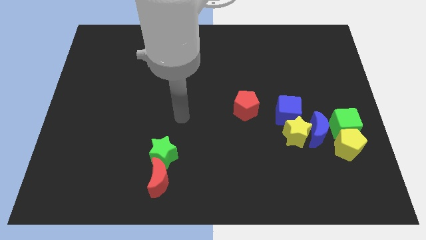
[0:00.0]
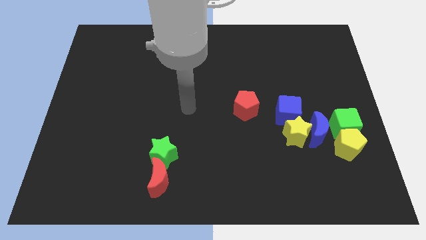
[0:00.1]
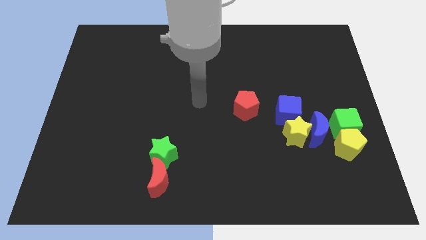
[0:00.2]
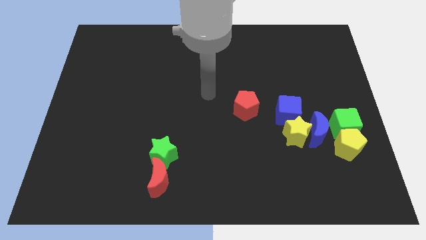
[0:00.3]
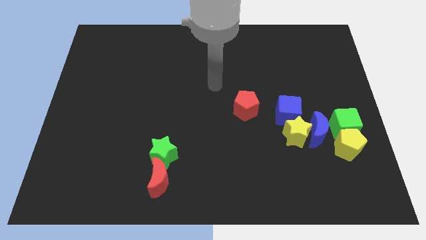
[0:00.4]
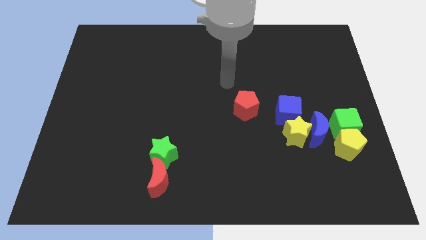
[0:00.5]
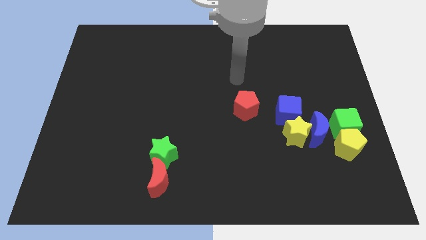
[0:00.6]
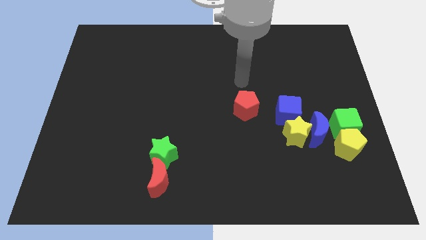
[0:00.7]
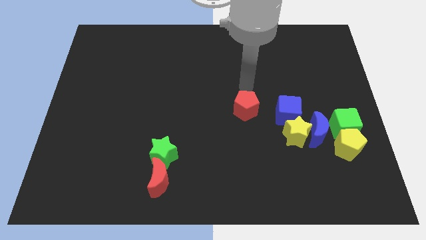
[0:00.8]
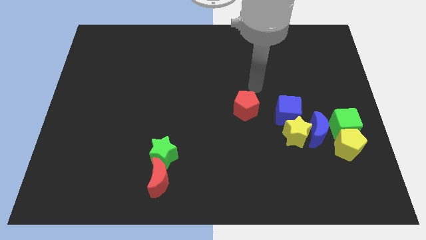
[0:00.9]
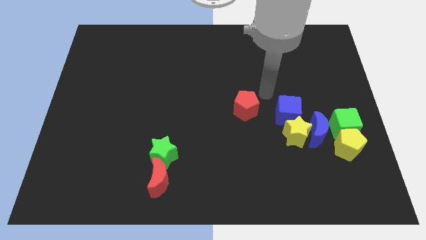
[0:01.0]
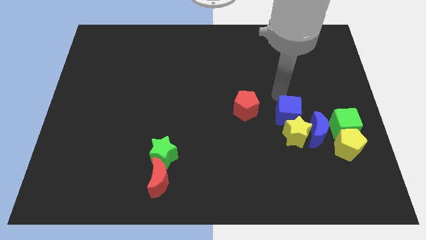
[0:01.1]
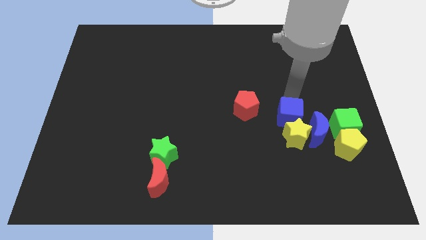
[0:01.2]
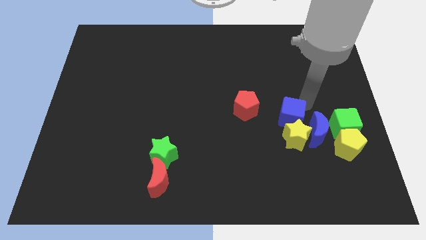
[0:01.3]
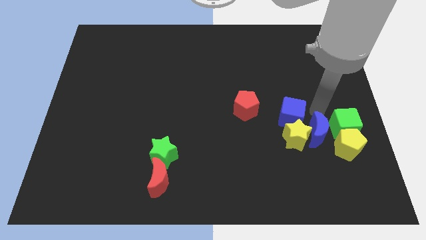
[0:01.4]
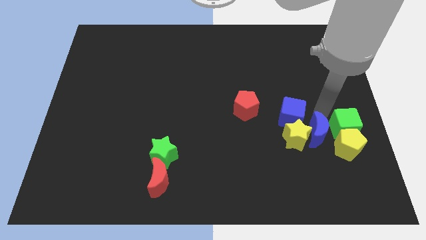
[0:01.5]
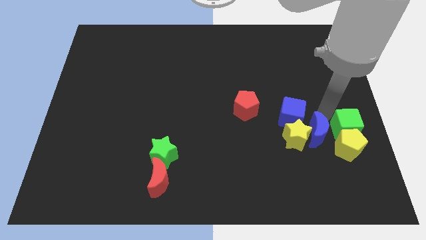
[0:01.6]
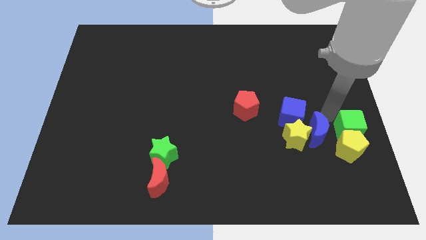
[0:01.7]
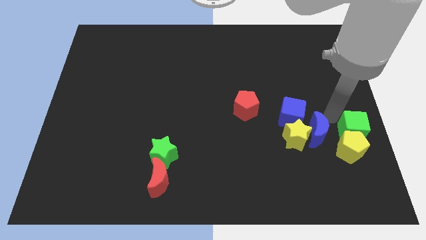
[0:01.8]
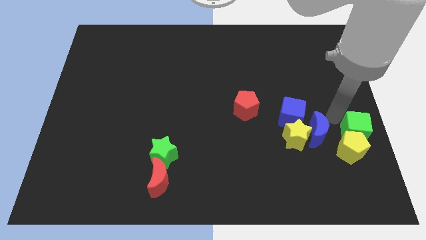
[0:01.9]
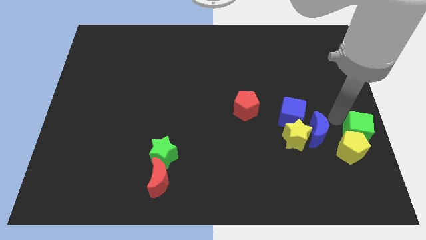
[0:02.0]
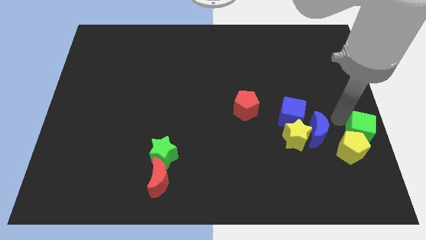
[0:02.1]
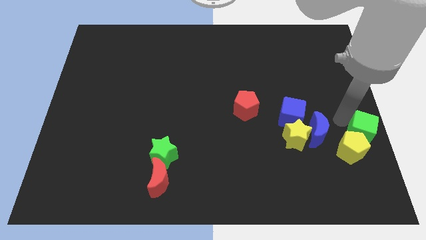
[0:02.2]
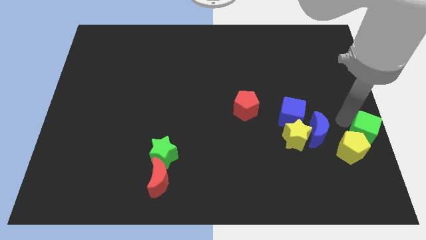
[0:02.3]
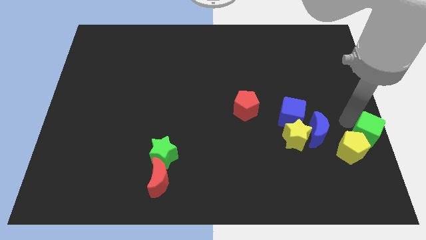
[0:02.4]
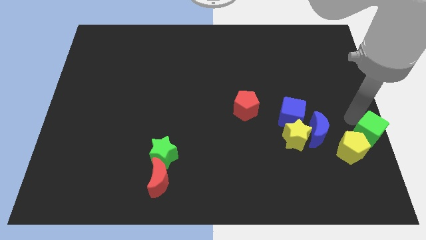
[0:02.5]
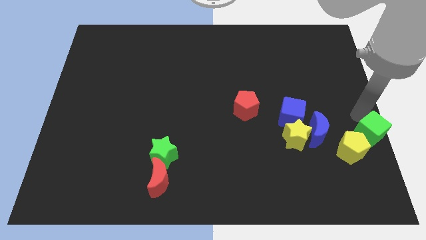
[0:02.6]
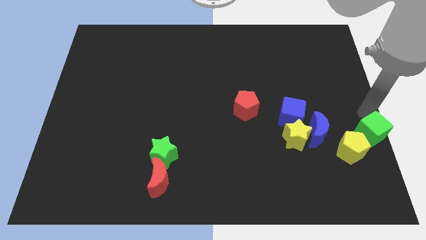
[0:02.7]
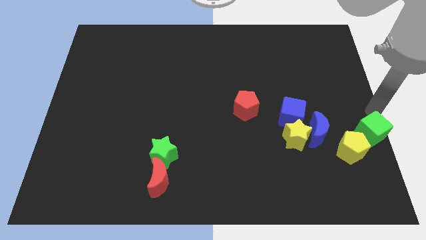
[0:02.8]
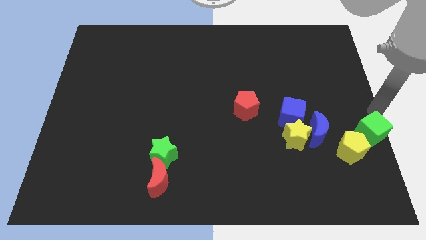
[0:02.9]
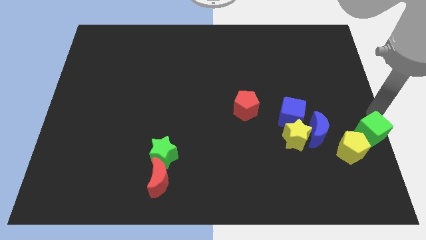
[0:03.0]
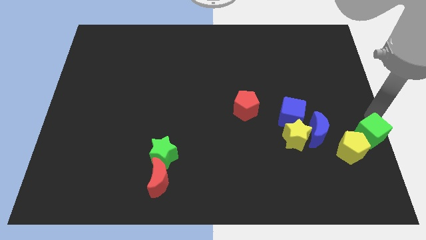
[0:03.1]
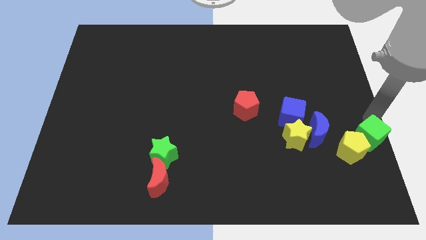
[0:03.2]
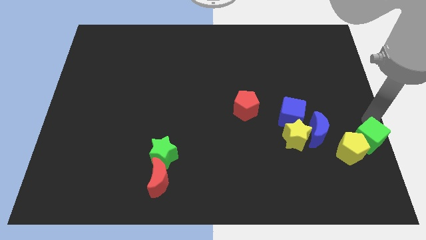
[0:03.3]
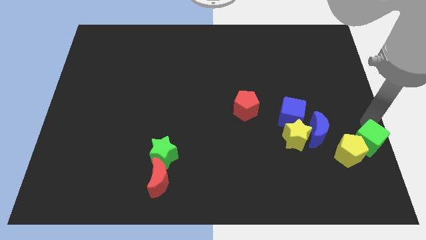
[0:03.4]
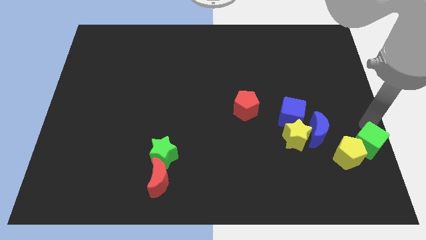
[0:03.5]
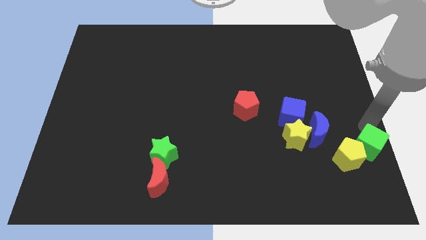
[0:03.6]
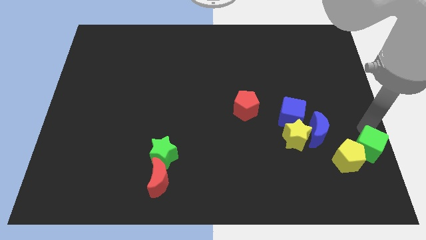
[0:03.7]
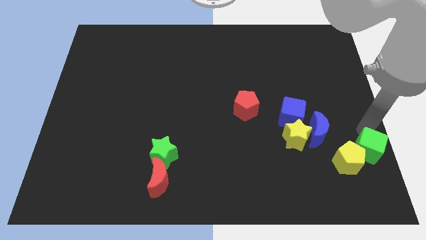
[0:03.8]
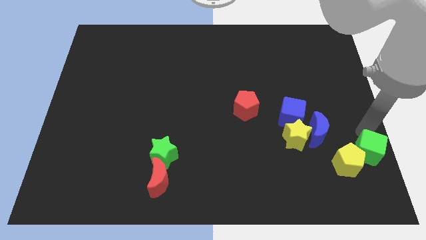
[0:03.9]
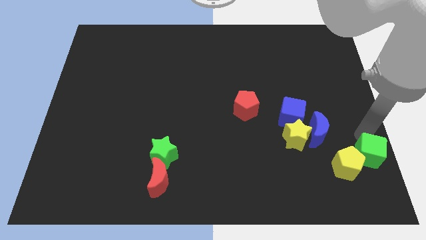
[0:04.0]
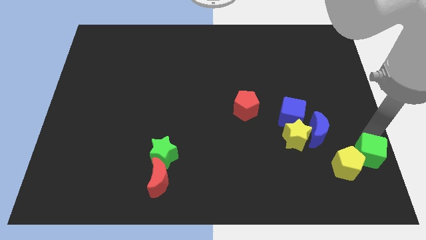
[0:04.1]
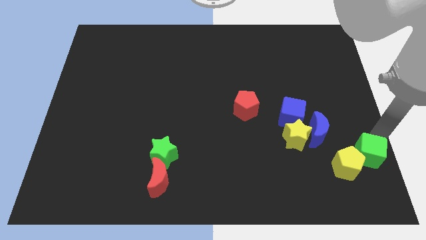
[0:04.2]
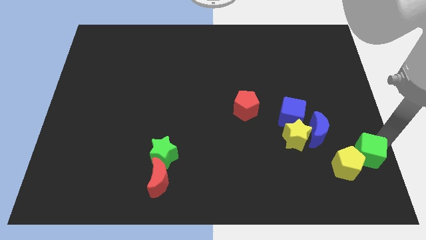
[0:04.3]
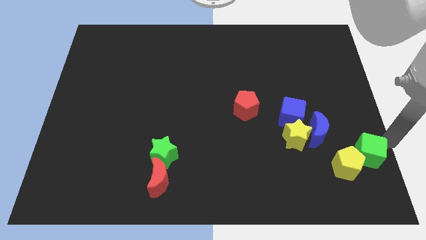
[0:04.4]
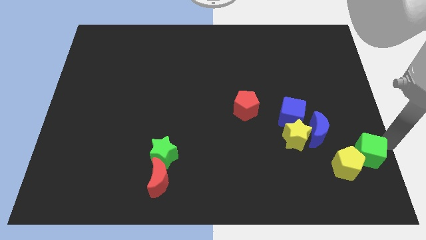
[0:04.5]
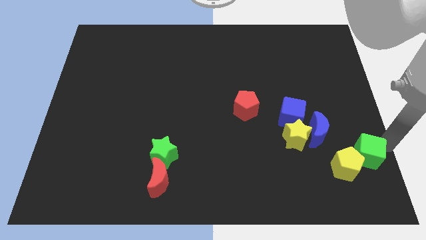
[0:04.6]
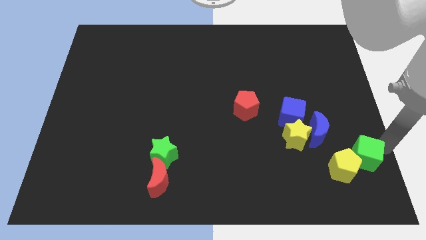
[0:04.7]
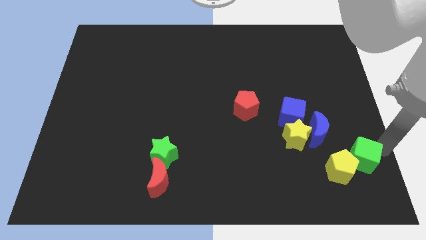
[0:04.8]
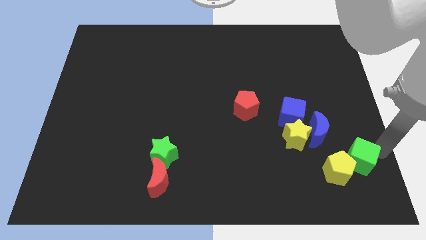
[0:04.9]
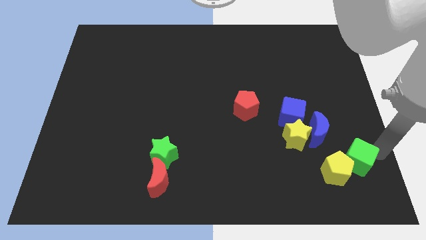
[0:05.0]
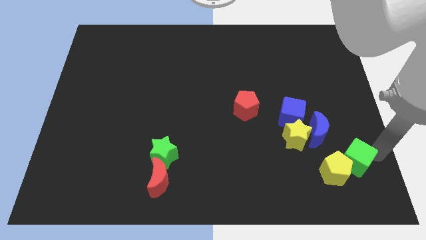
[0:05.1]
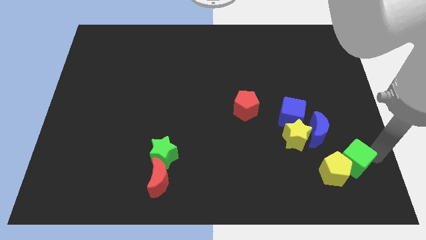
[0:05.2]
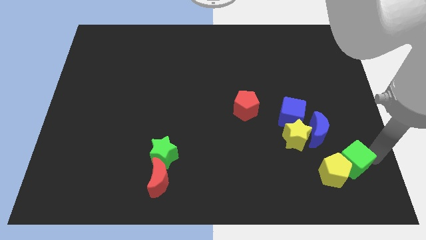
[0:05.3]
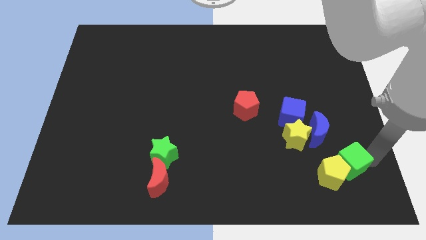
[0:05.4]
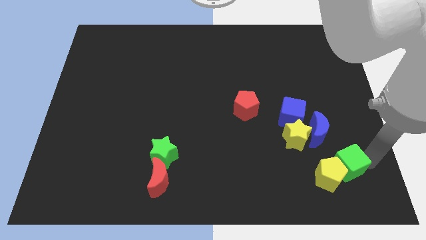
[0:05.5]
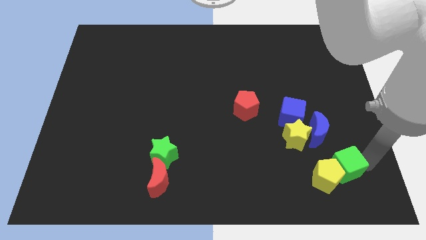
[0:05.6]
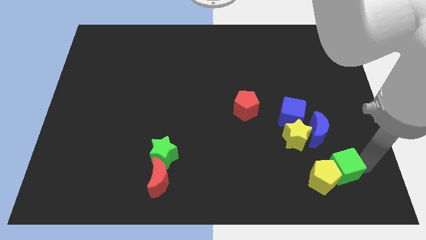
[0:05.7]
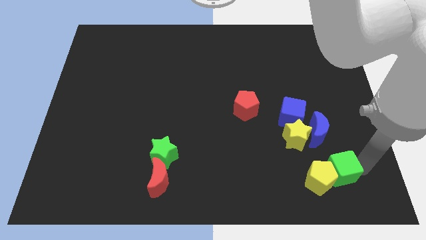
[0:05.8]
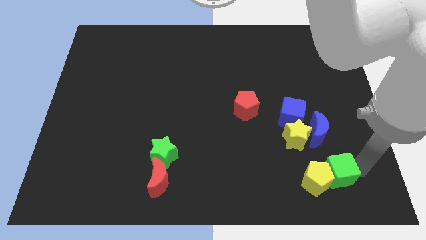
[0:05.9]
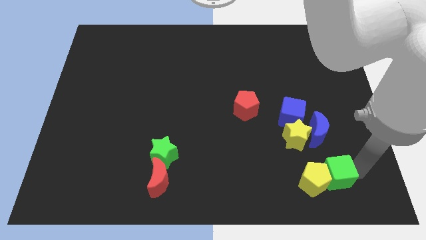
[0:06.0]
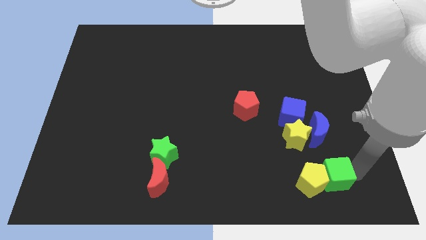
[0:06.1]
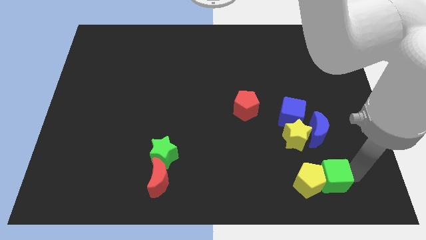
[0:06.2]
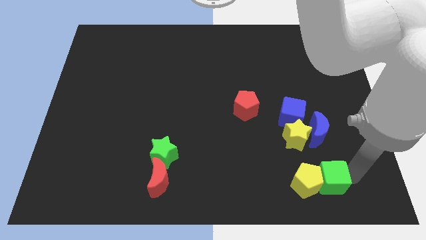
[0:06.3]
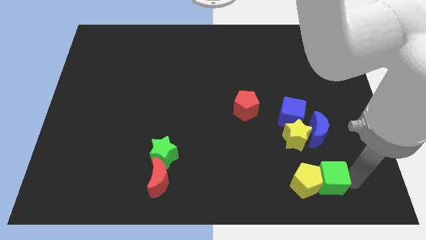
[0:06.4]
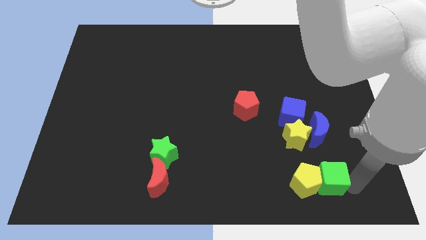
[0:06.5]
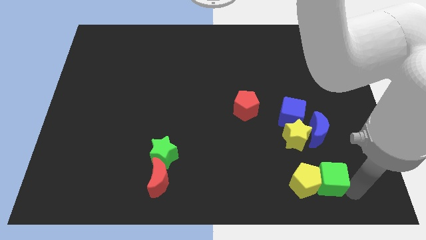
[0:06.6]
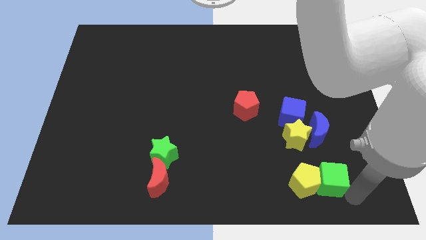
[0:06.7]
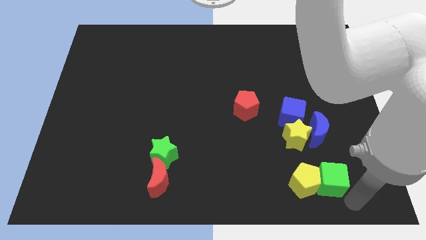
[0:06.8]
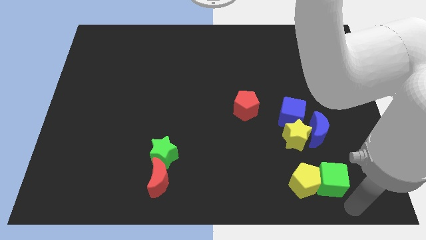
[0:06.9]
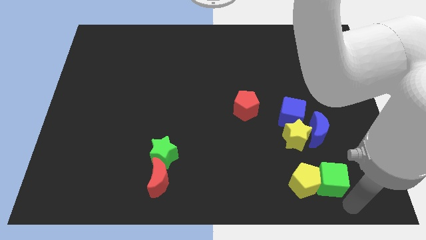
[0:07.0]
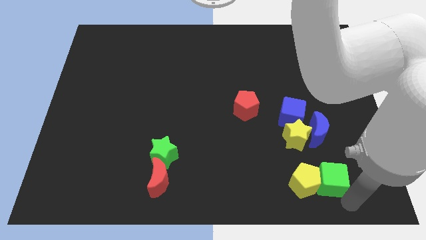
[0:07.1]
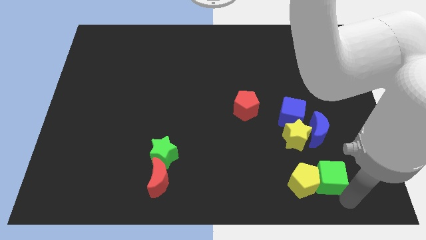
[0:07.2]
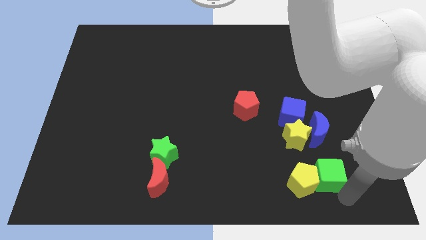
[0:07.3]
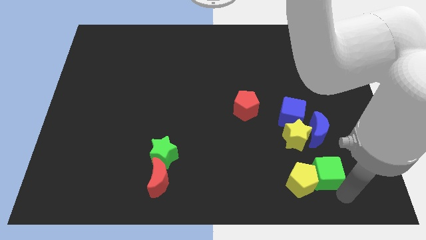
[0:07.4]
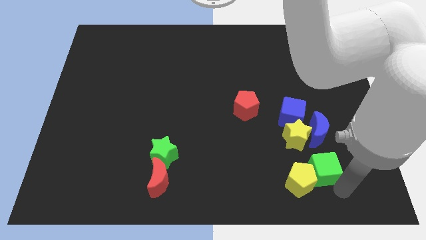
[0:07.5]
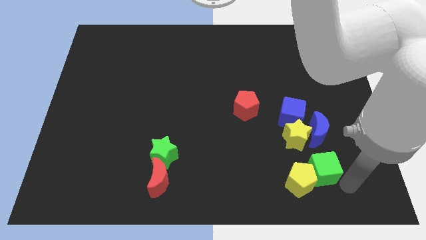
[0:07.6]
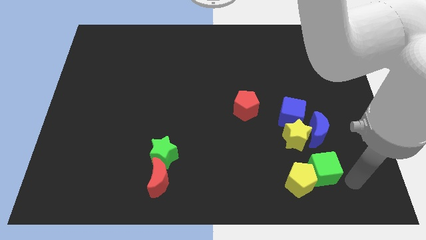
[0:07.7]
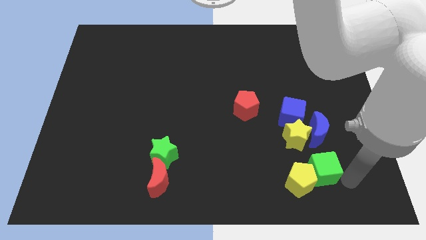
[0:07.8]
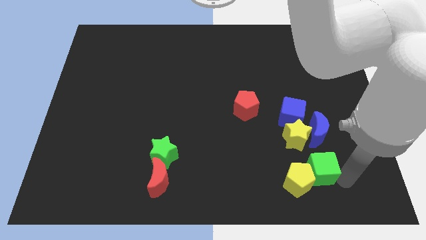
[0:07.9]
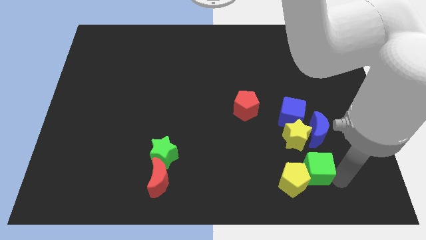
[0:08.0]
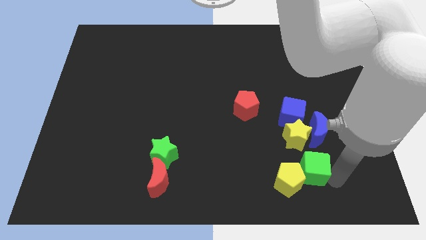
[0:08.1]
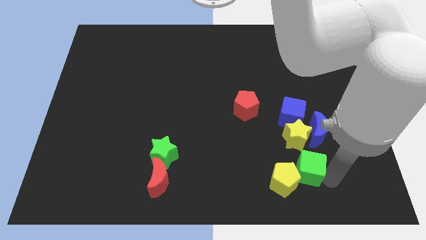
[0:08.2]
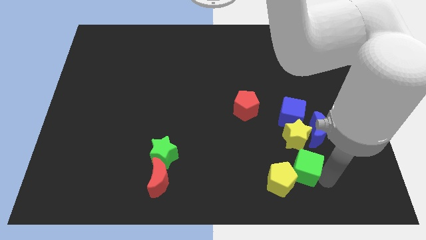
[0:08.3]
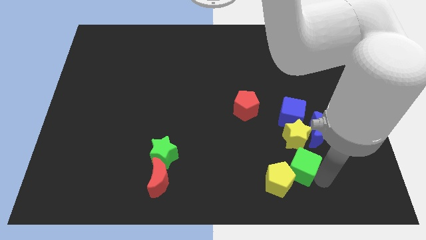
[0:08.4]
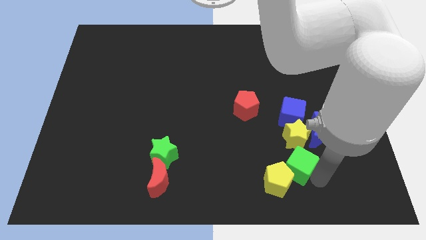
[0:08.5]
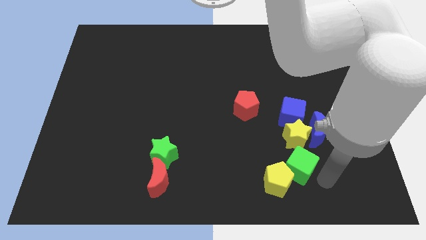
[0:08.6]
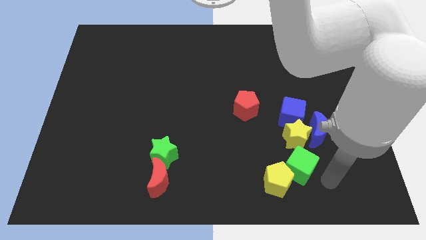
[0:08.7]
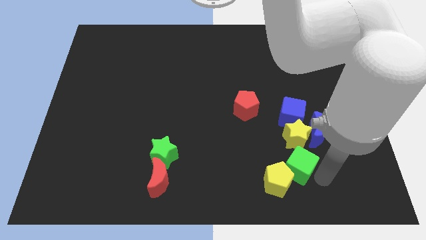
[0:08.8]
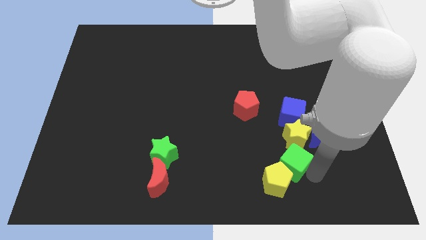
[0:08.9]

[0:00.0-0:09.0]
put the green cube to the bottom left side of the yellow star
